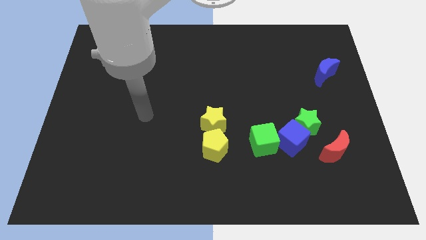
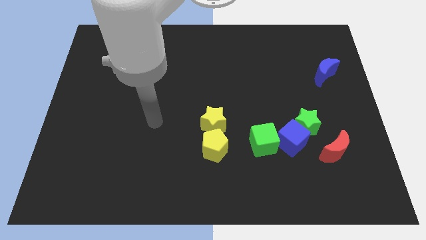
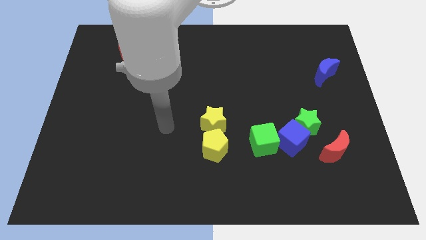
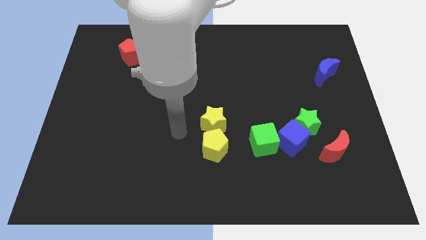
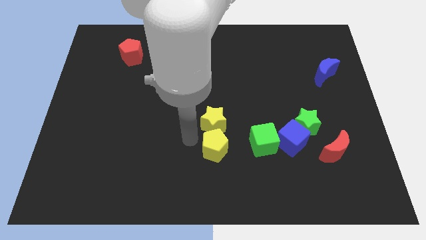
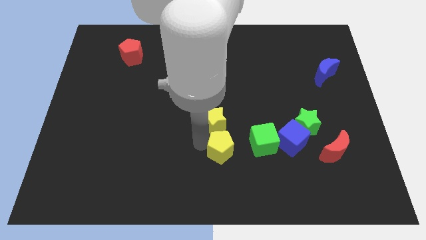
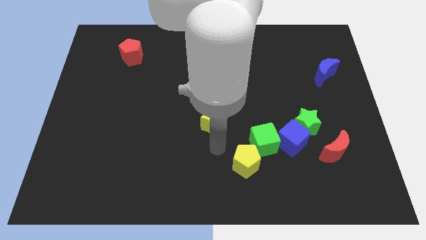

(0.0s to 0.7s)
pull the yellow star apart from the yellow pentagon

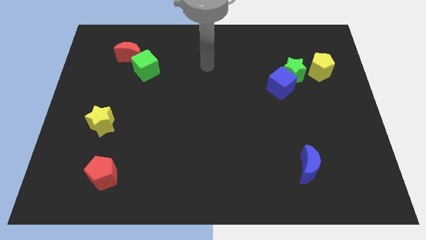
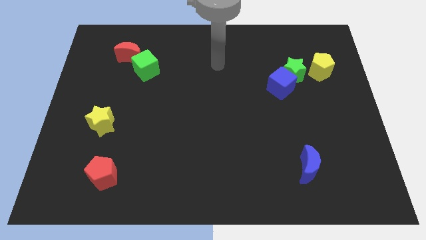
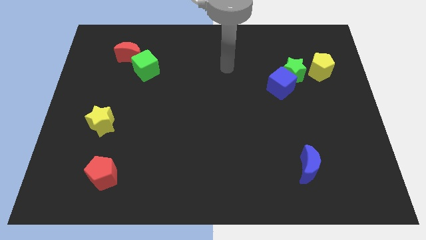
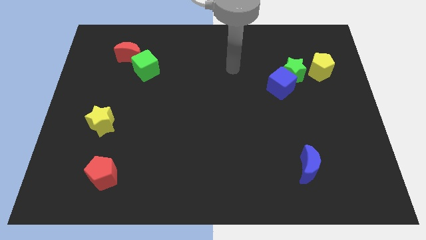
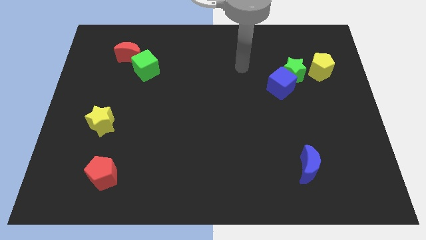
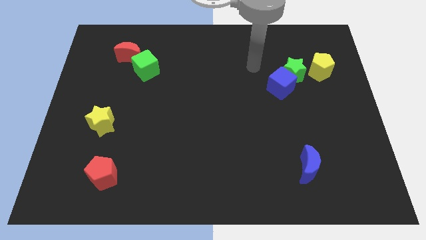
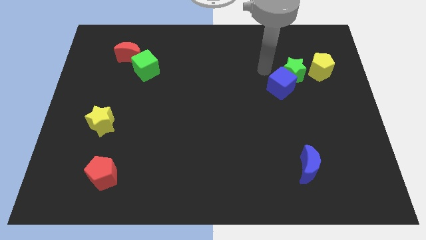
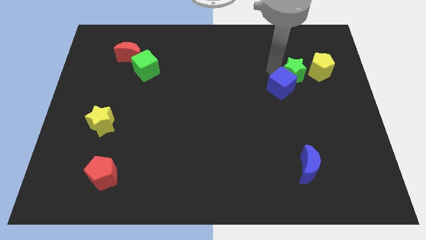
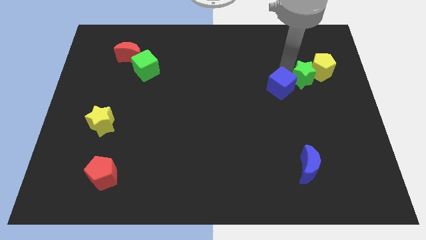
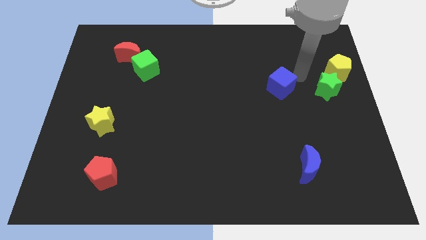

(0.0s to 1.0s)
move the blue cube away from the green star

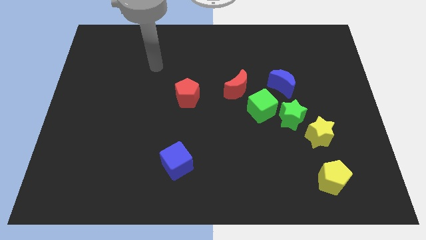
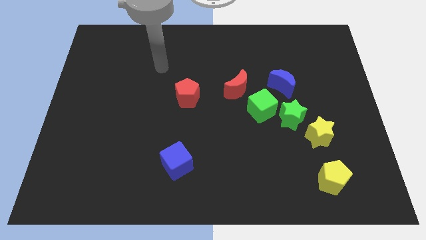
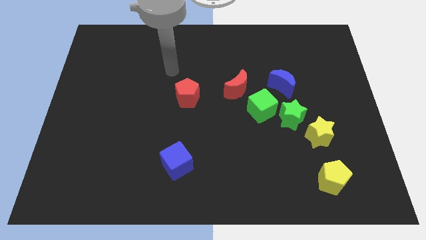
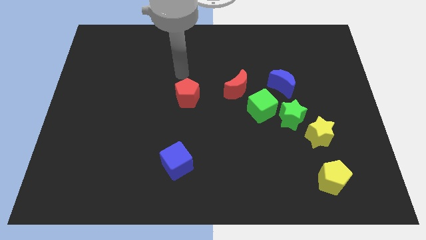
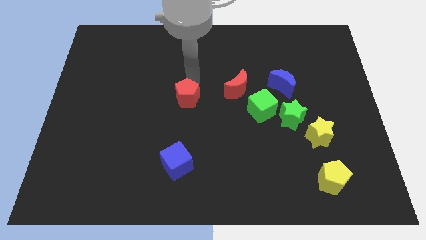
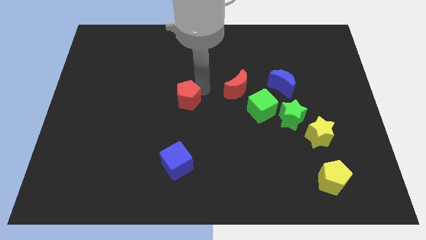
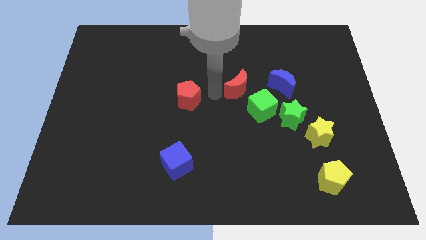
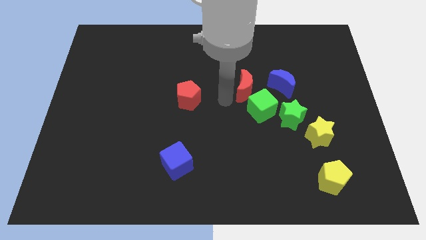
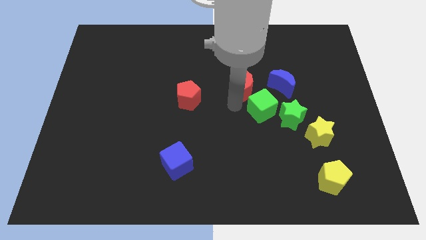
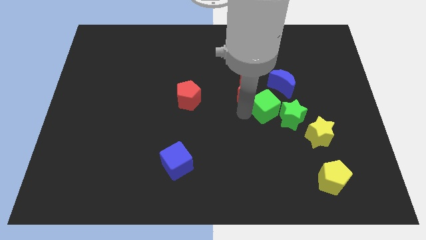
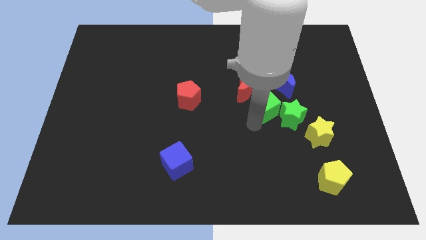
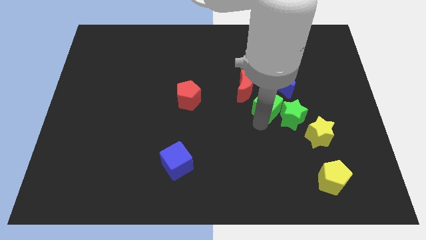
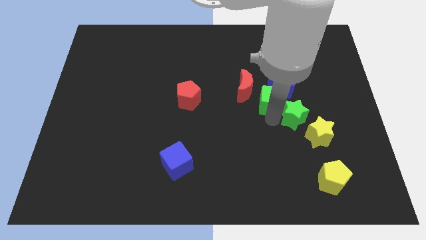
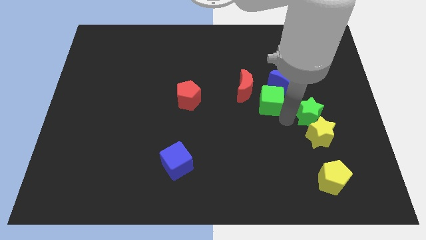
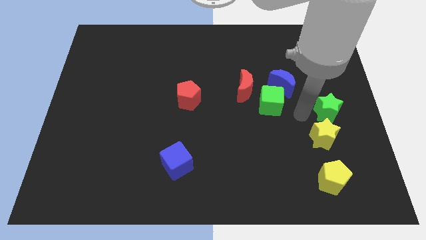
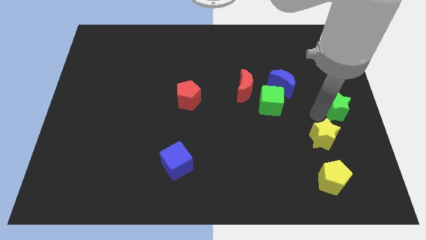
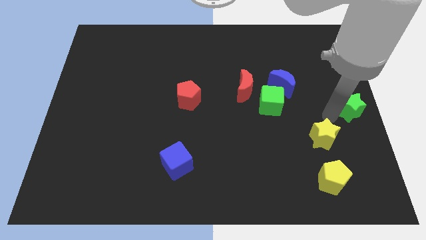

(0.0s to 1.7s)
move the yellow star away from the green star

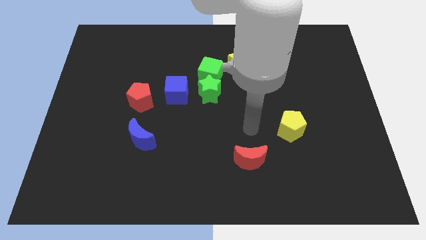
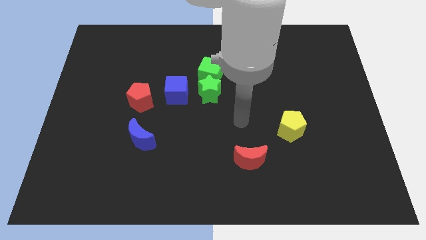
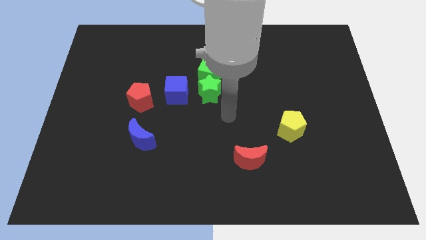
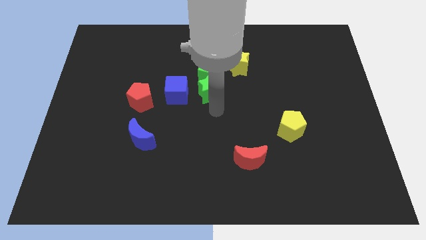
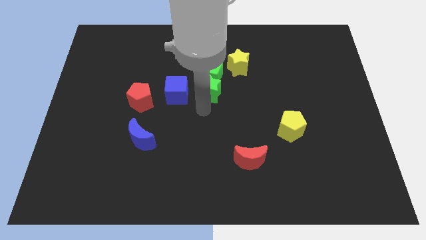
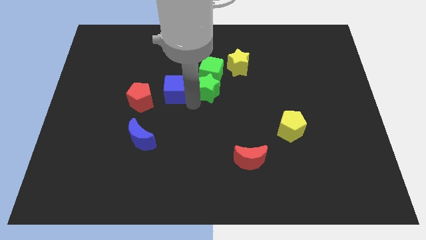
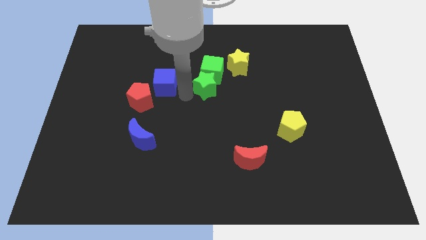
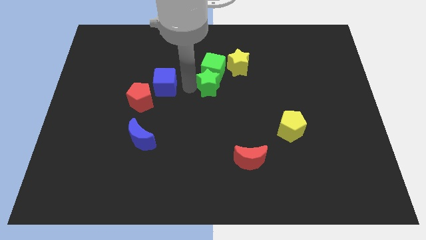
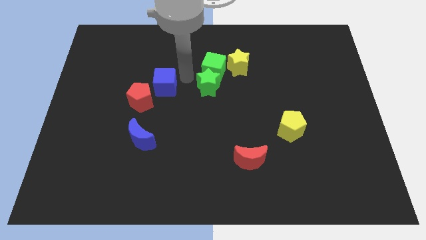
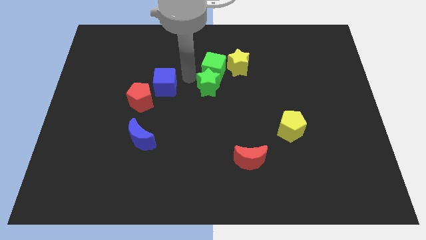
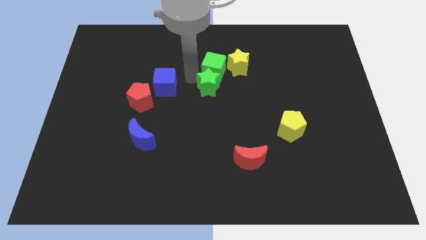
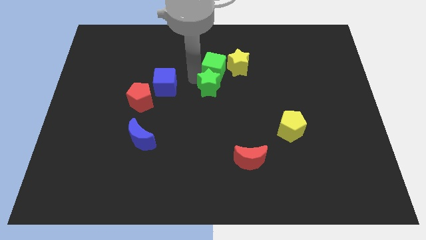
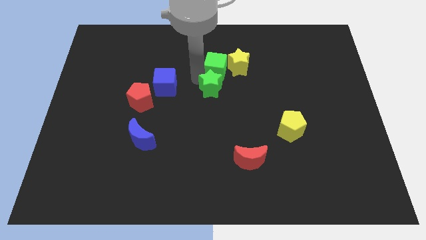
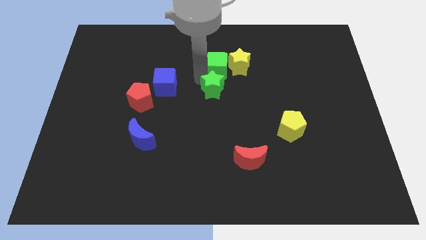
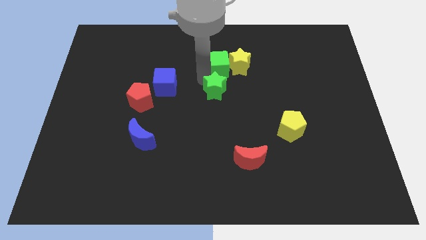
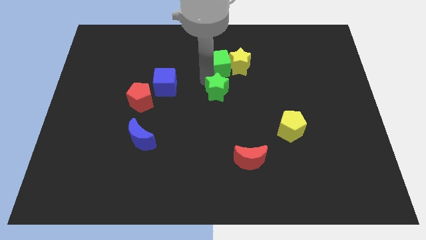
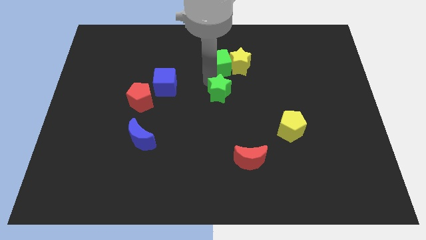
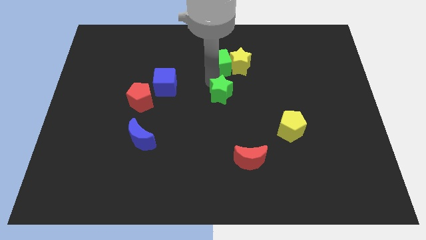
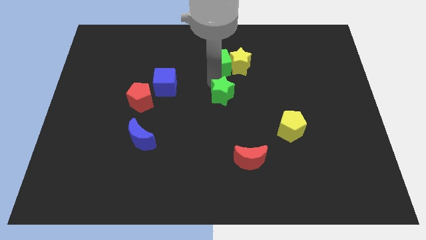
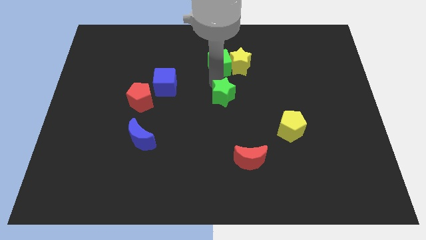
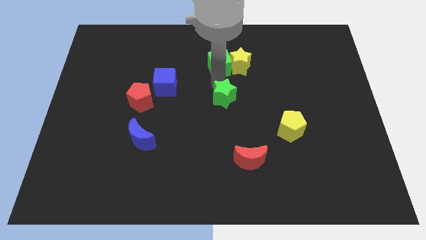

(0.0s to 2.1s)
move the green star away from the green cube and blue cube

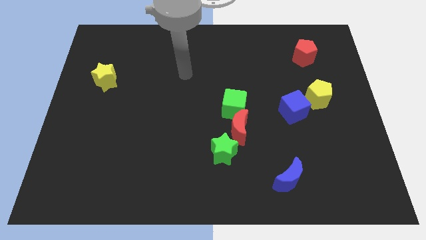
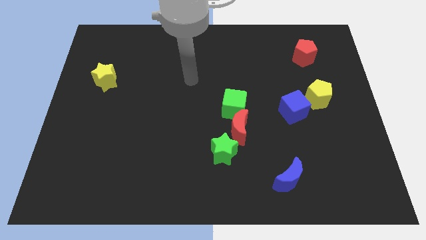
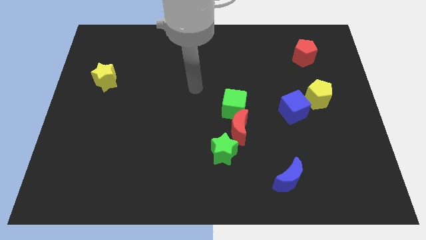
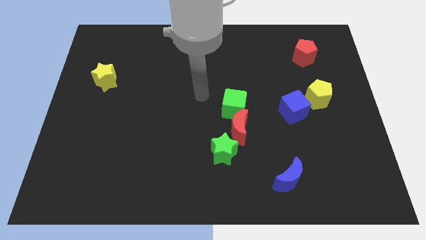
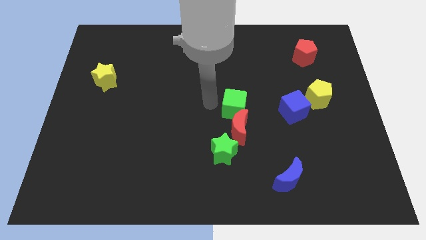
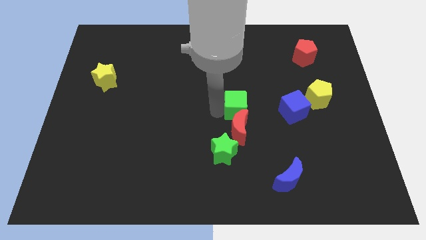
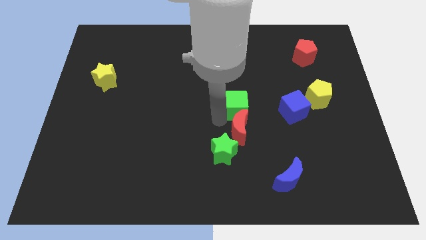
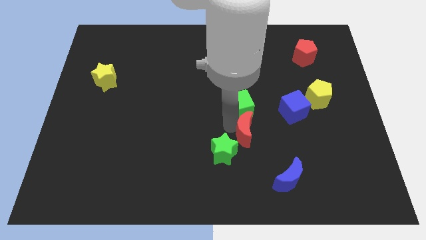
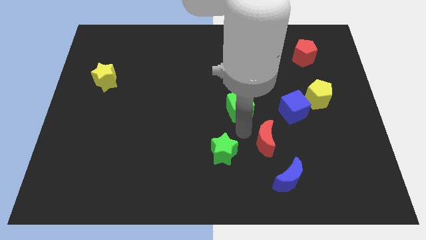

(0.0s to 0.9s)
pull the green cube apart from the red moon

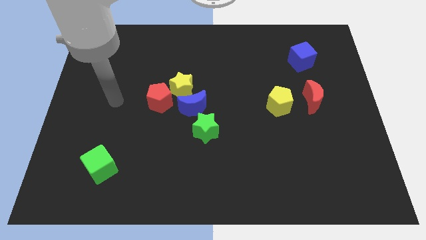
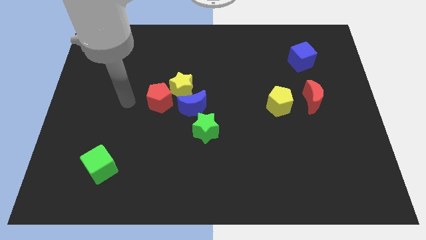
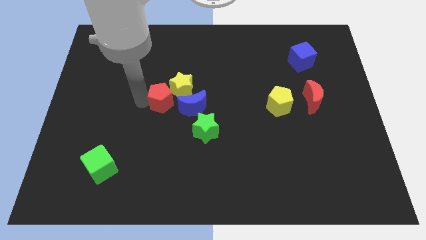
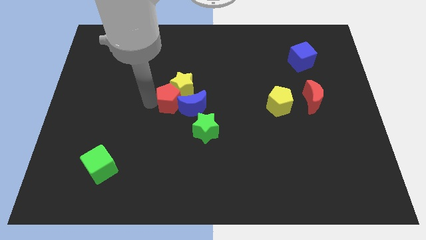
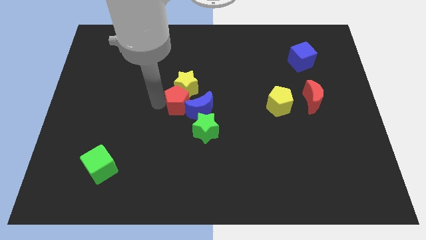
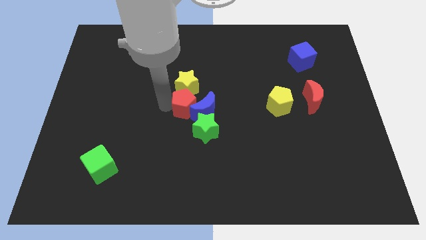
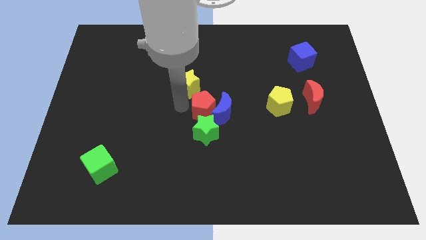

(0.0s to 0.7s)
separate the yellow star from the red pentagon and blue moon

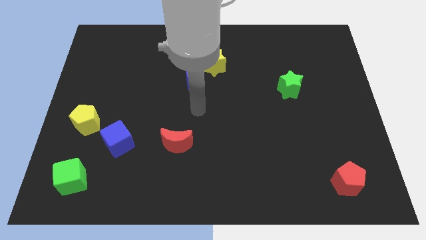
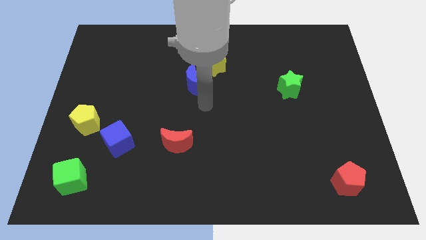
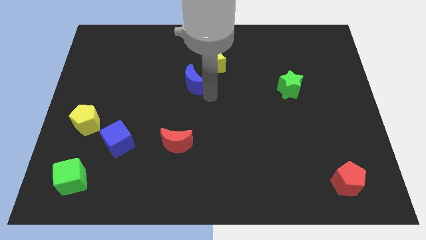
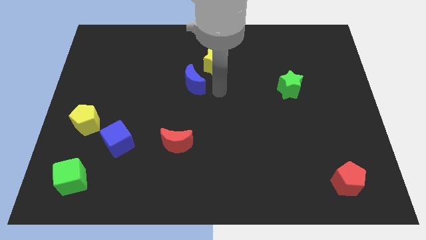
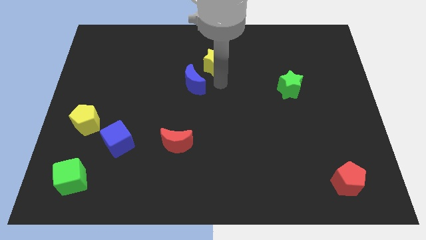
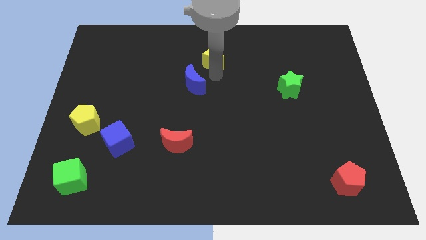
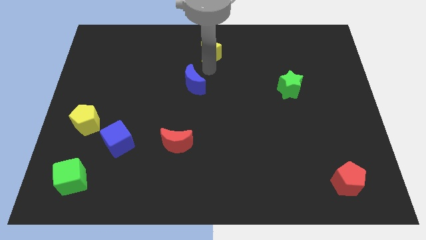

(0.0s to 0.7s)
move the blue moon away from the yellow star

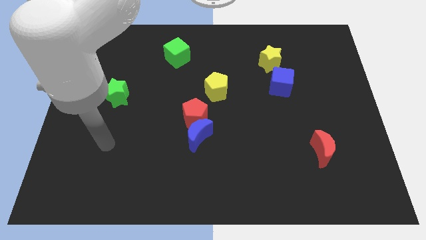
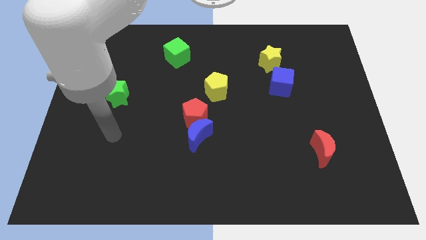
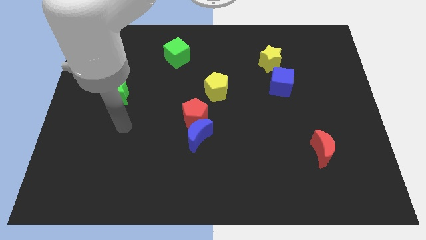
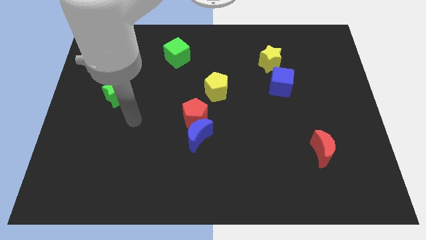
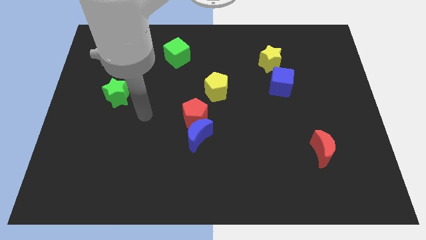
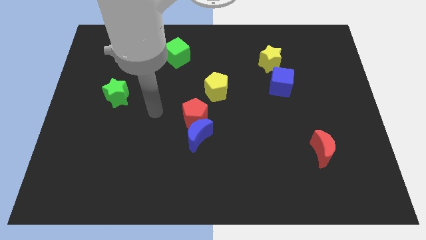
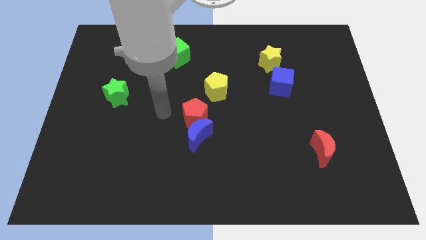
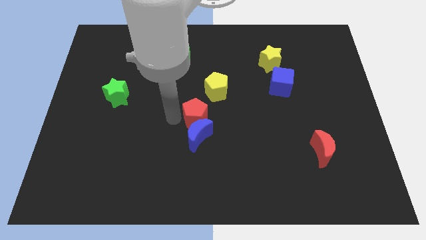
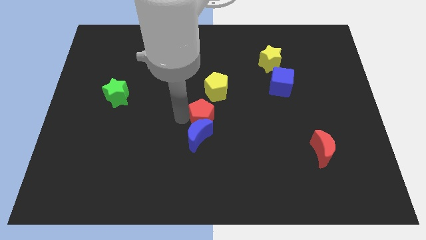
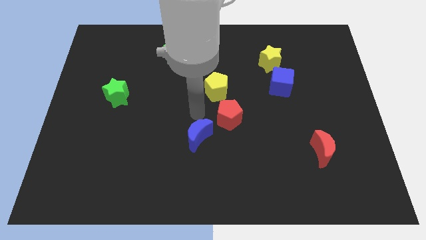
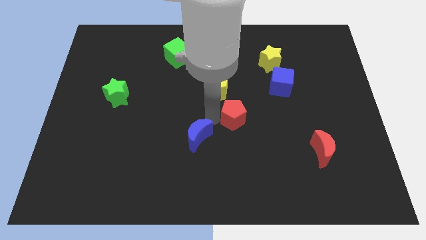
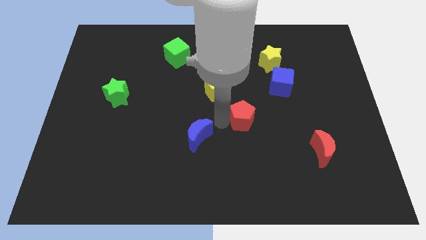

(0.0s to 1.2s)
move the blue moon away from the red pentagon

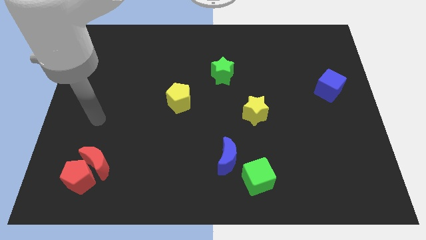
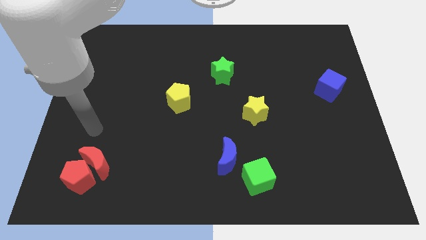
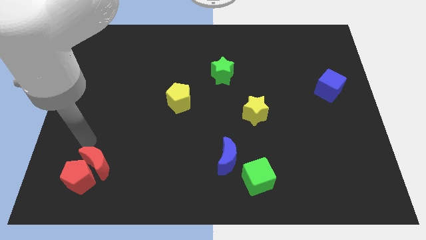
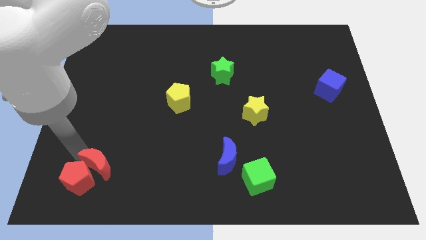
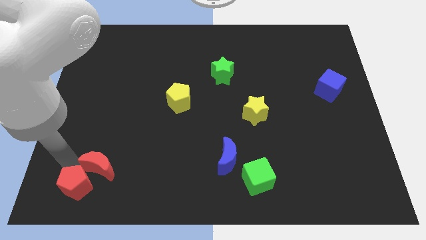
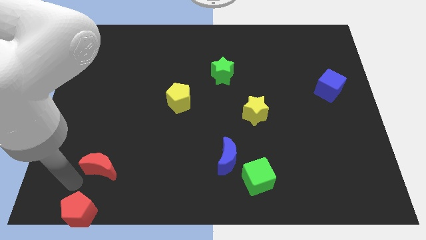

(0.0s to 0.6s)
move the red moon away from the red pentagon
